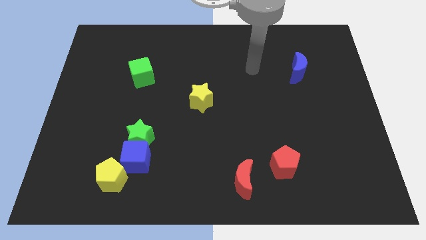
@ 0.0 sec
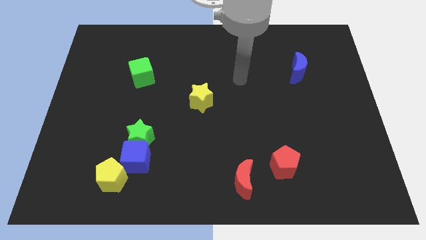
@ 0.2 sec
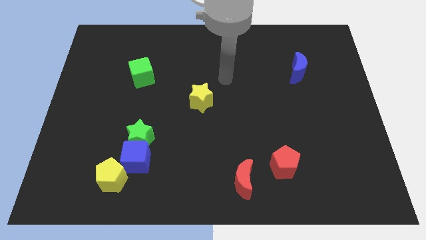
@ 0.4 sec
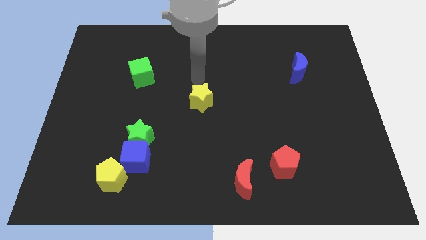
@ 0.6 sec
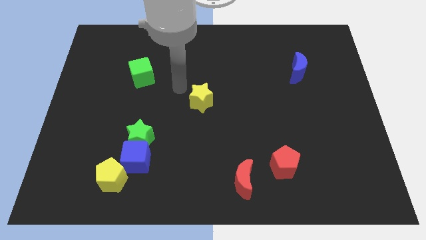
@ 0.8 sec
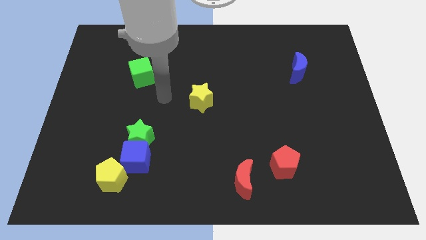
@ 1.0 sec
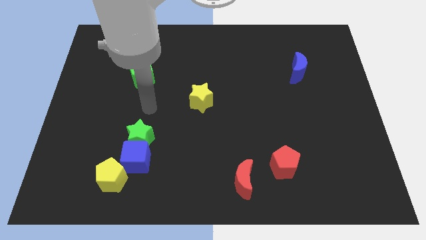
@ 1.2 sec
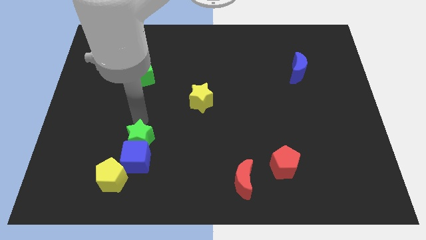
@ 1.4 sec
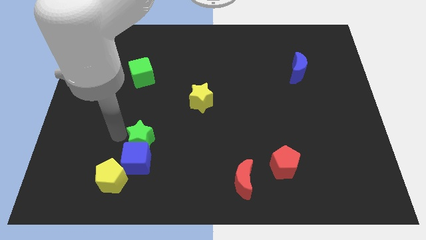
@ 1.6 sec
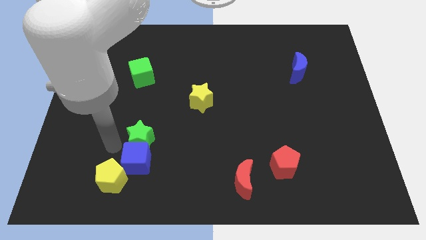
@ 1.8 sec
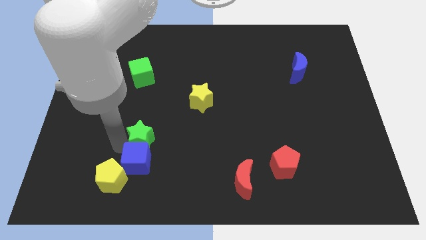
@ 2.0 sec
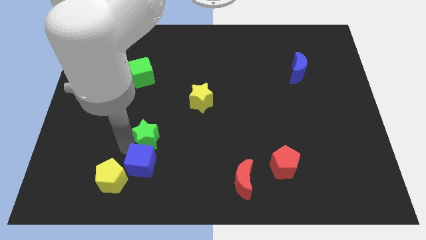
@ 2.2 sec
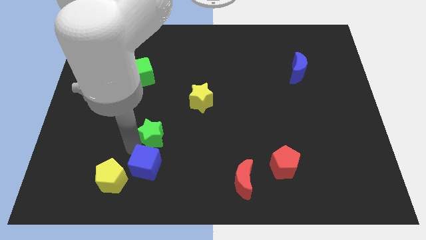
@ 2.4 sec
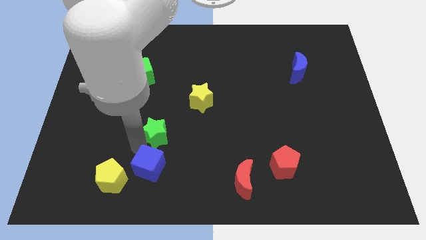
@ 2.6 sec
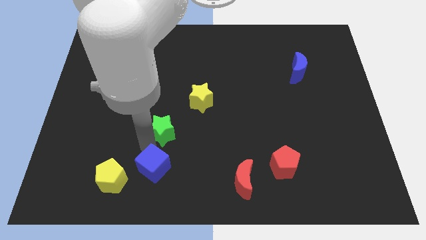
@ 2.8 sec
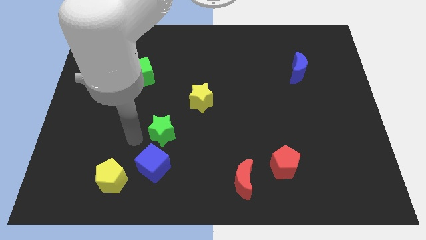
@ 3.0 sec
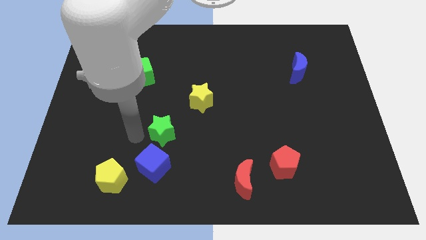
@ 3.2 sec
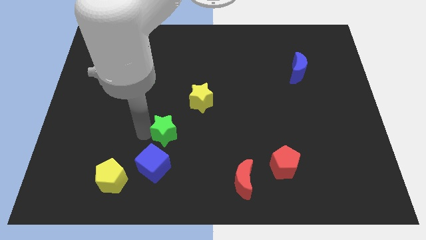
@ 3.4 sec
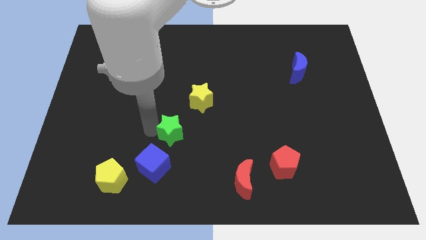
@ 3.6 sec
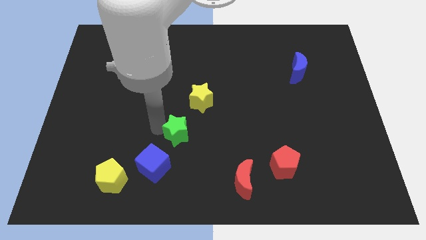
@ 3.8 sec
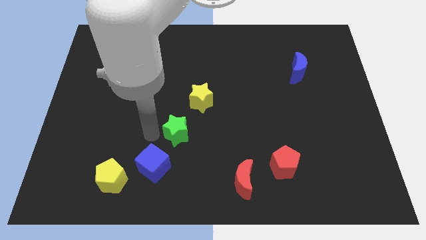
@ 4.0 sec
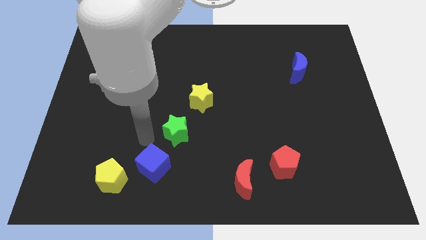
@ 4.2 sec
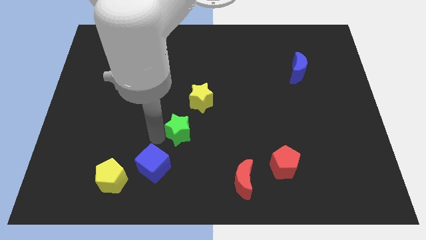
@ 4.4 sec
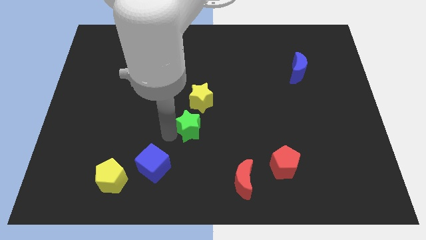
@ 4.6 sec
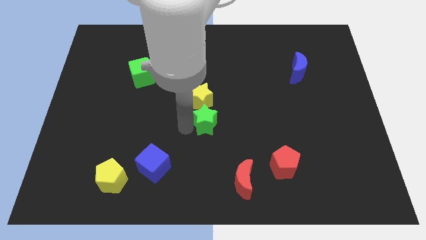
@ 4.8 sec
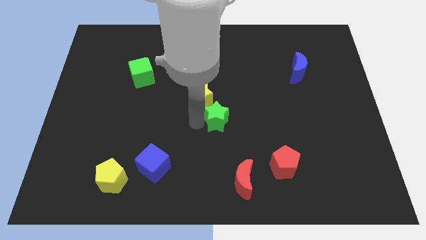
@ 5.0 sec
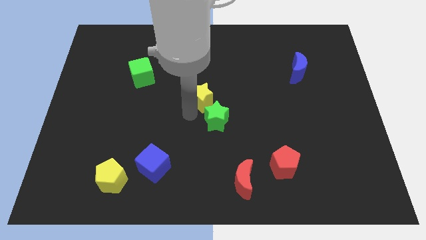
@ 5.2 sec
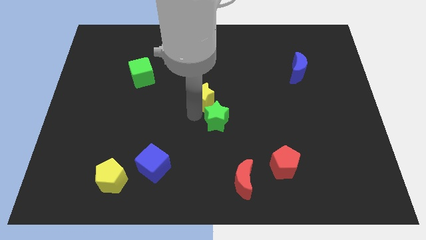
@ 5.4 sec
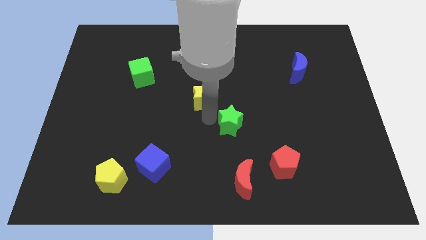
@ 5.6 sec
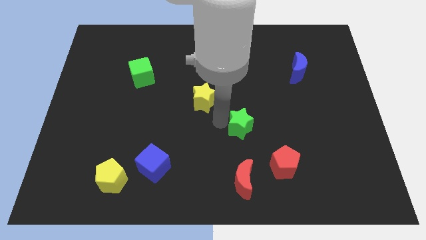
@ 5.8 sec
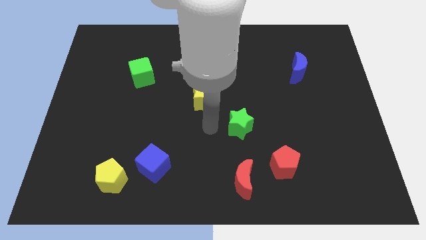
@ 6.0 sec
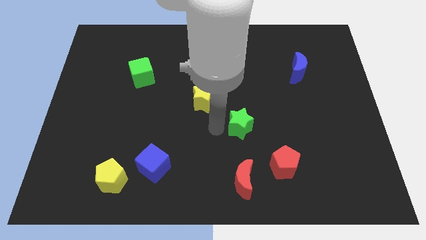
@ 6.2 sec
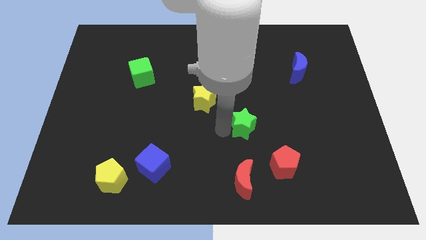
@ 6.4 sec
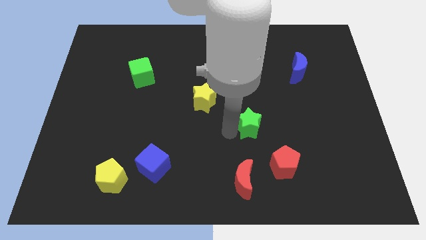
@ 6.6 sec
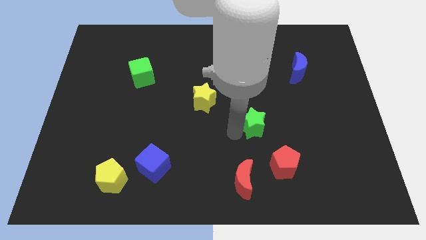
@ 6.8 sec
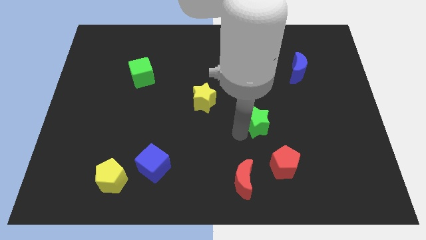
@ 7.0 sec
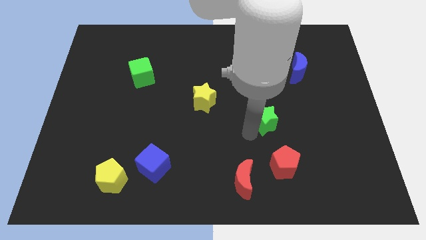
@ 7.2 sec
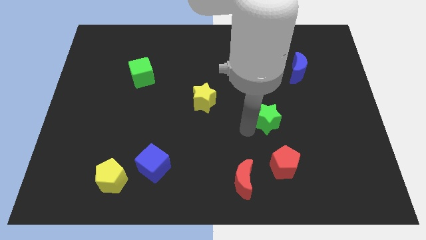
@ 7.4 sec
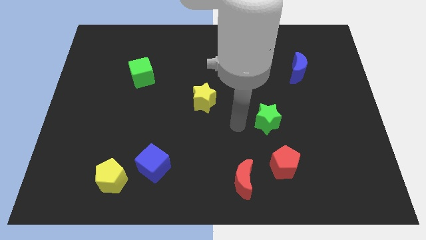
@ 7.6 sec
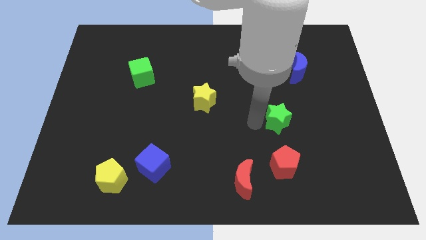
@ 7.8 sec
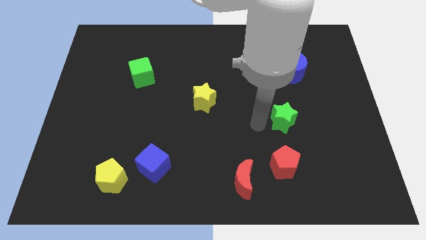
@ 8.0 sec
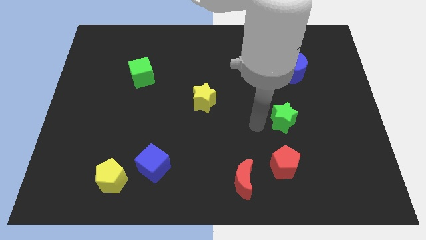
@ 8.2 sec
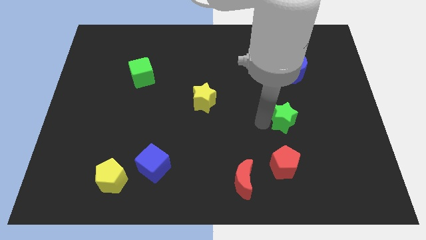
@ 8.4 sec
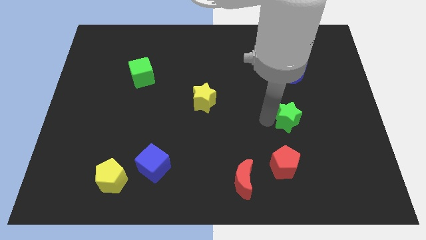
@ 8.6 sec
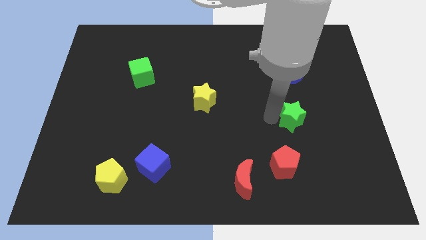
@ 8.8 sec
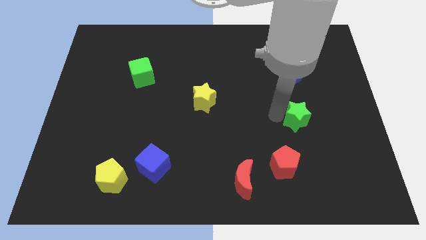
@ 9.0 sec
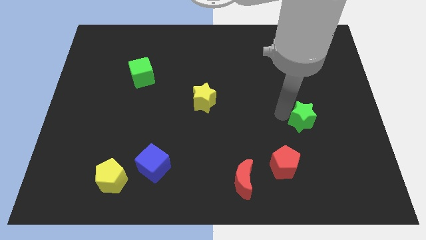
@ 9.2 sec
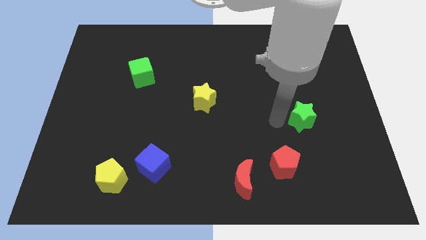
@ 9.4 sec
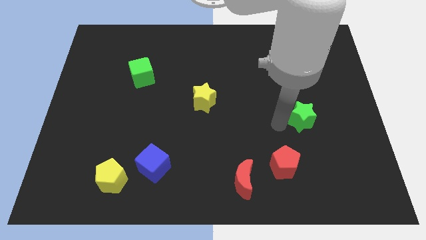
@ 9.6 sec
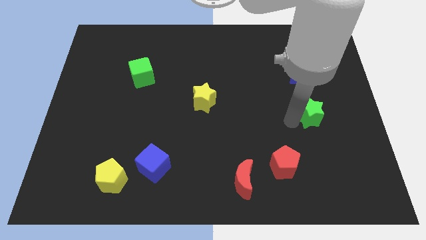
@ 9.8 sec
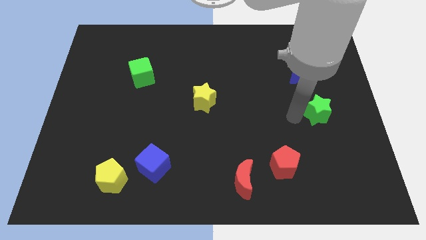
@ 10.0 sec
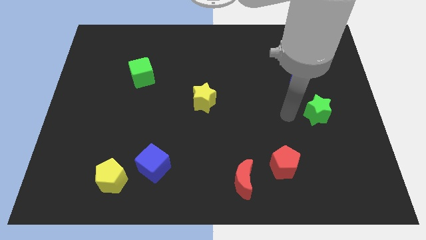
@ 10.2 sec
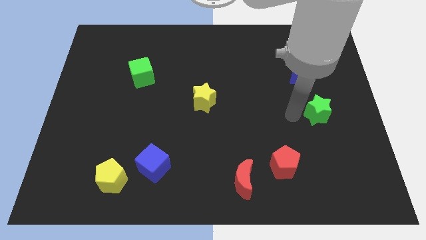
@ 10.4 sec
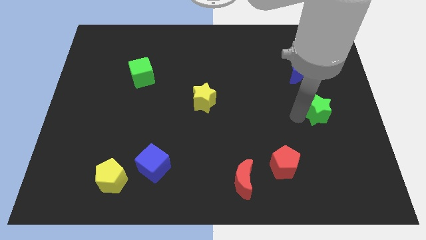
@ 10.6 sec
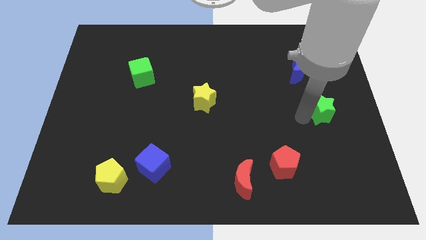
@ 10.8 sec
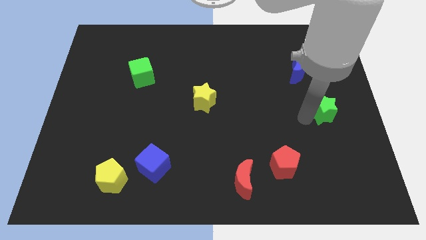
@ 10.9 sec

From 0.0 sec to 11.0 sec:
slide the green star to the right side of the board

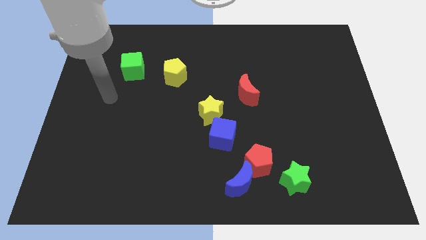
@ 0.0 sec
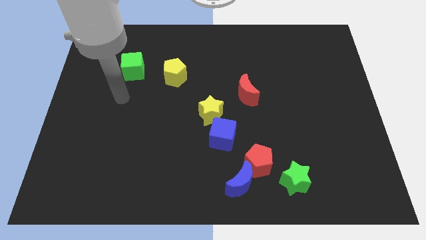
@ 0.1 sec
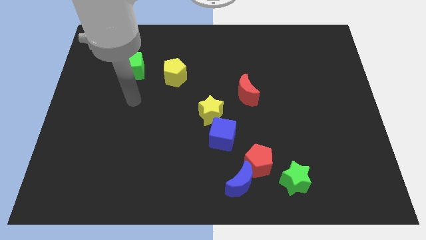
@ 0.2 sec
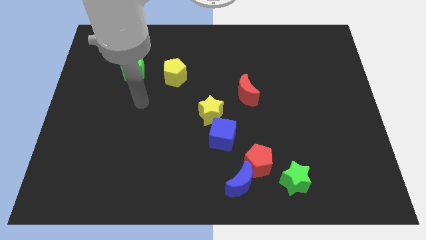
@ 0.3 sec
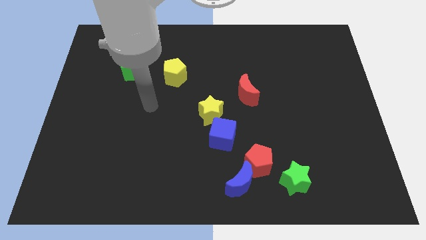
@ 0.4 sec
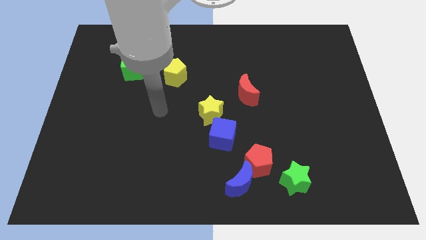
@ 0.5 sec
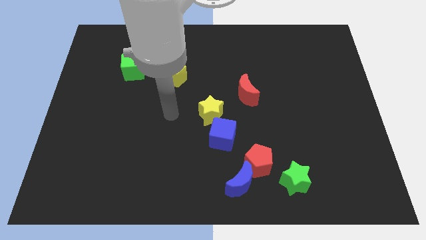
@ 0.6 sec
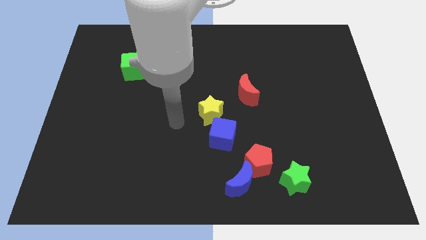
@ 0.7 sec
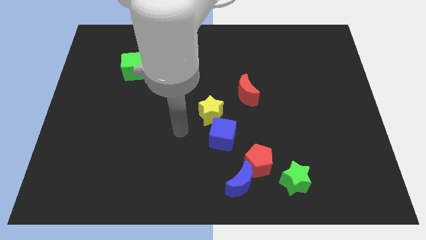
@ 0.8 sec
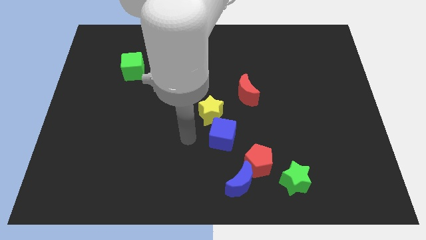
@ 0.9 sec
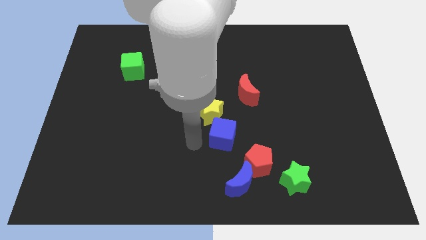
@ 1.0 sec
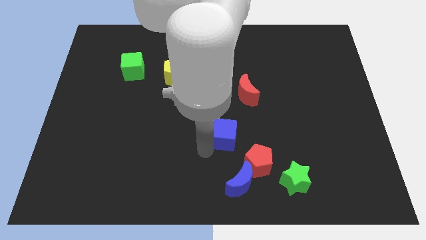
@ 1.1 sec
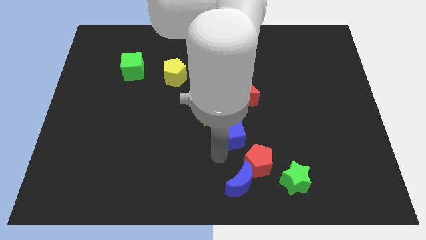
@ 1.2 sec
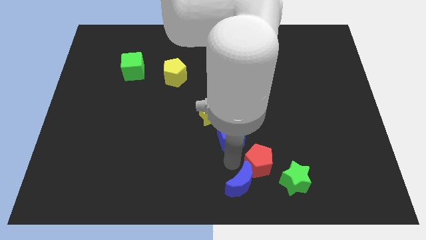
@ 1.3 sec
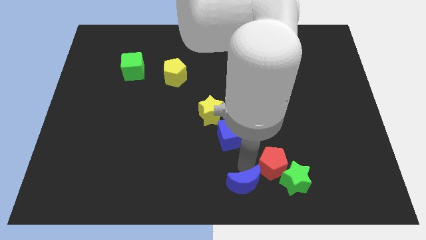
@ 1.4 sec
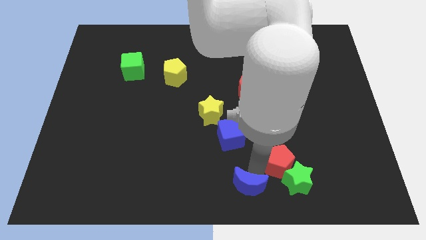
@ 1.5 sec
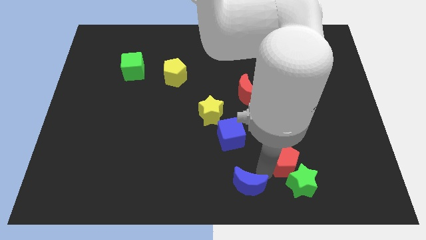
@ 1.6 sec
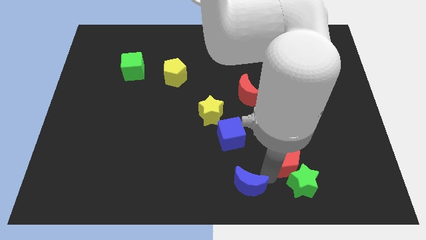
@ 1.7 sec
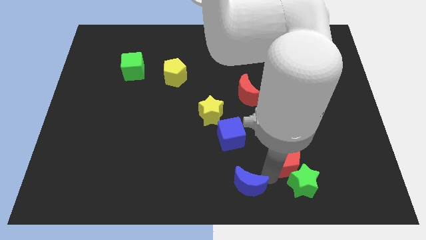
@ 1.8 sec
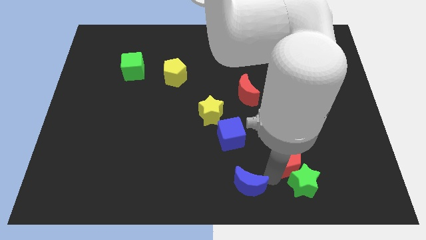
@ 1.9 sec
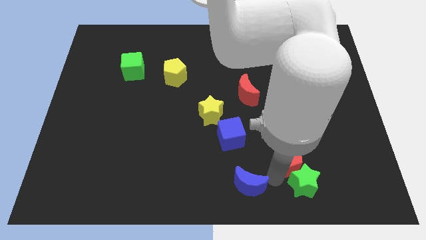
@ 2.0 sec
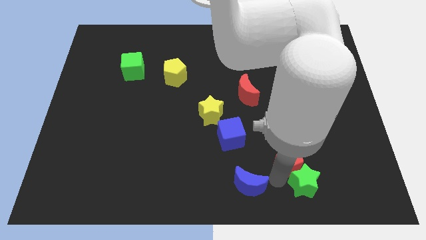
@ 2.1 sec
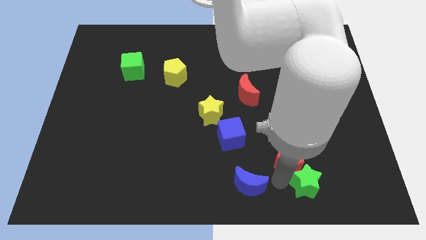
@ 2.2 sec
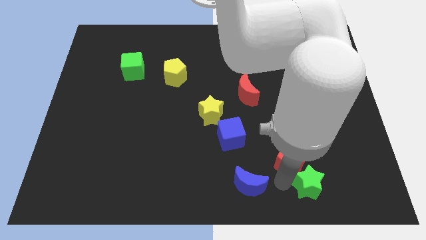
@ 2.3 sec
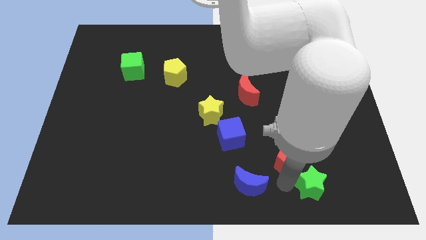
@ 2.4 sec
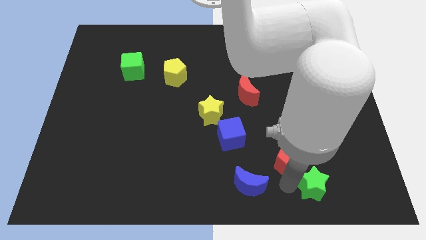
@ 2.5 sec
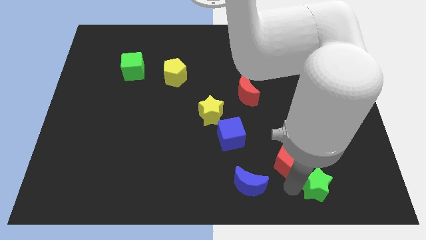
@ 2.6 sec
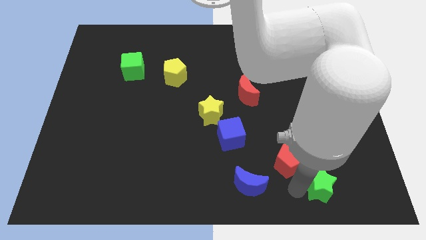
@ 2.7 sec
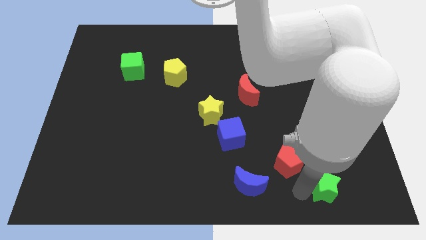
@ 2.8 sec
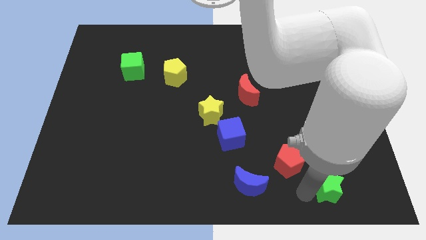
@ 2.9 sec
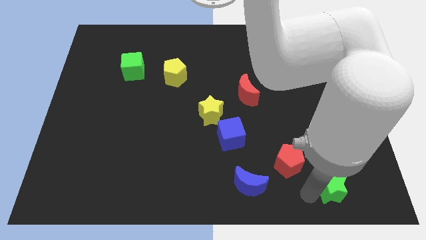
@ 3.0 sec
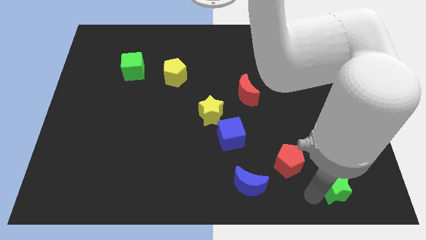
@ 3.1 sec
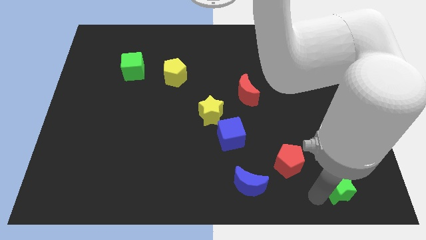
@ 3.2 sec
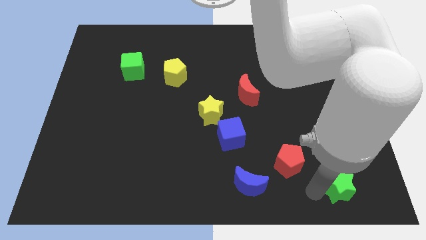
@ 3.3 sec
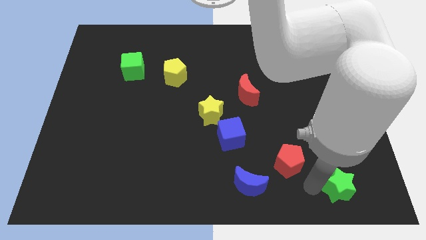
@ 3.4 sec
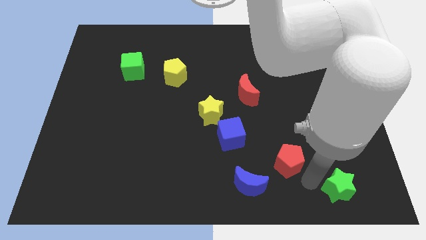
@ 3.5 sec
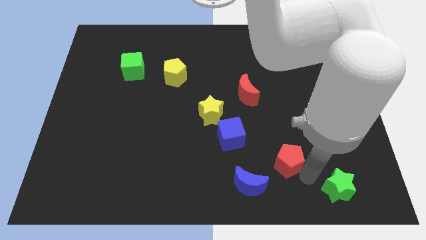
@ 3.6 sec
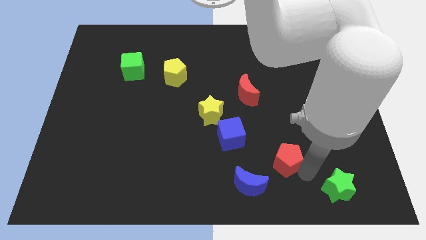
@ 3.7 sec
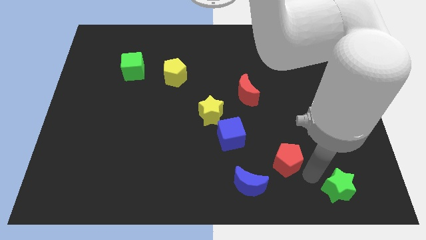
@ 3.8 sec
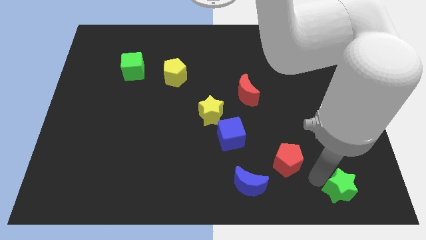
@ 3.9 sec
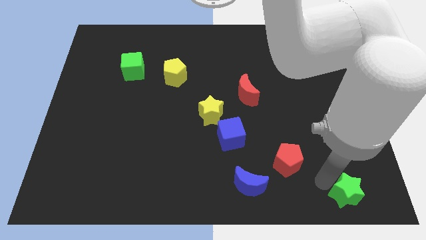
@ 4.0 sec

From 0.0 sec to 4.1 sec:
put the green star to the lower right corner
